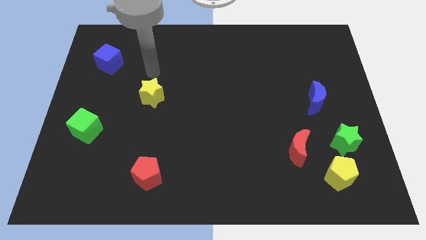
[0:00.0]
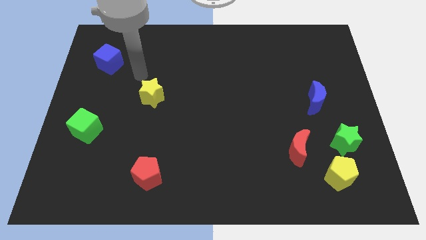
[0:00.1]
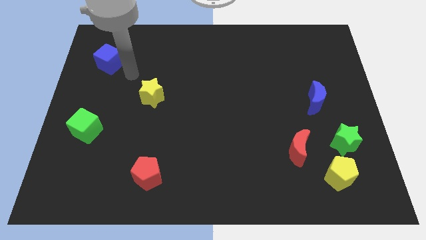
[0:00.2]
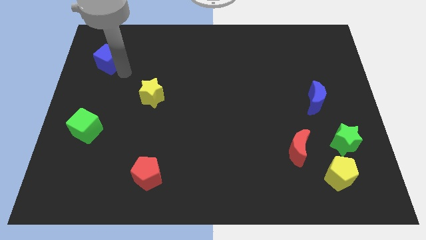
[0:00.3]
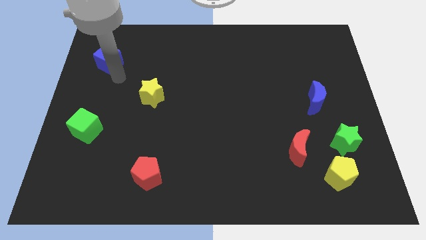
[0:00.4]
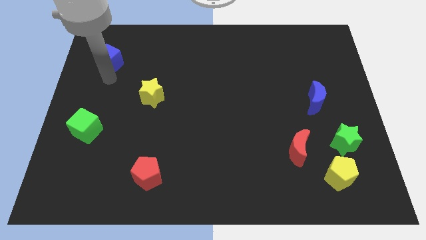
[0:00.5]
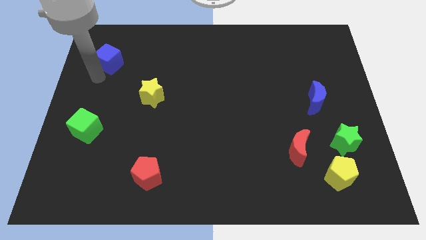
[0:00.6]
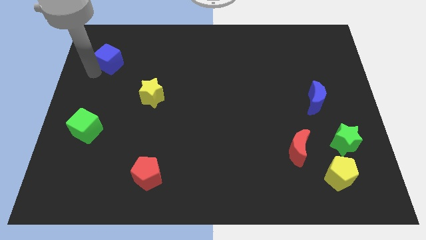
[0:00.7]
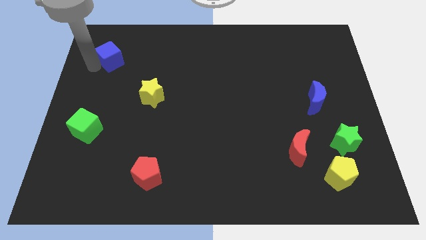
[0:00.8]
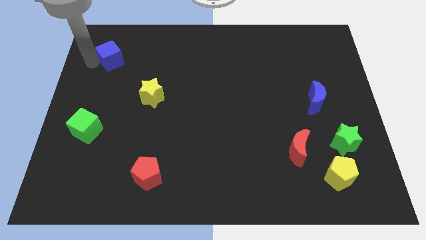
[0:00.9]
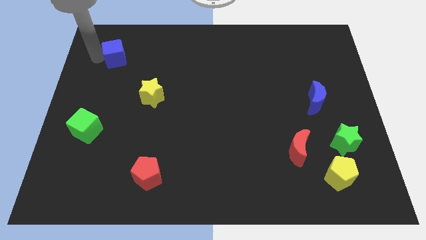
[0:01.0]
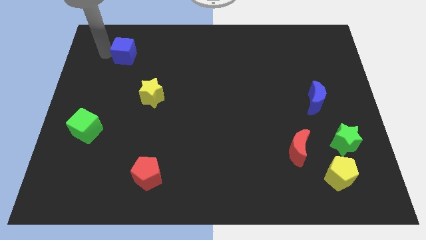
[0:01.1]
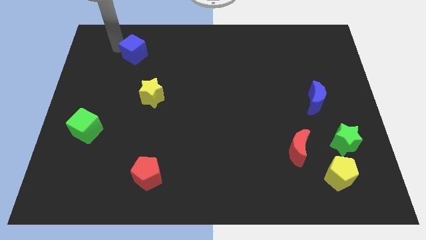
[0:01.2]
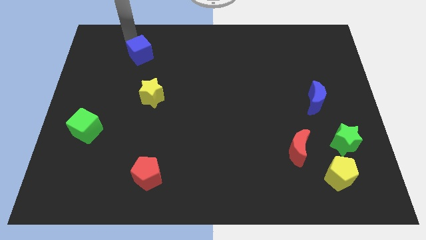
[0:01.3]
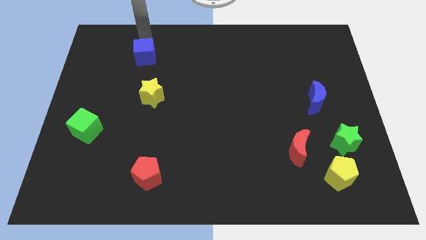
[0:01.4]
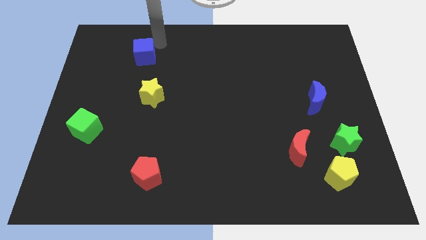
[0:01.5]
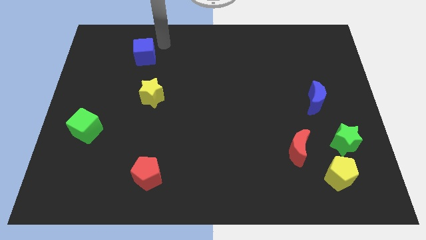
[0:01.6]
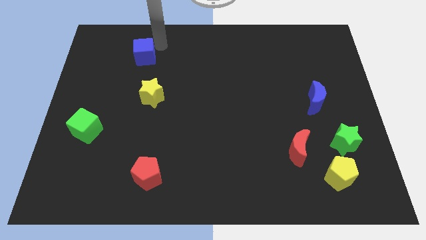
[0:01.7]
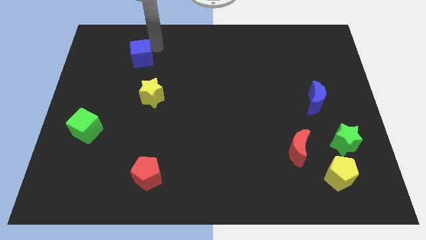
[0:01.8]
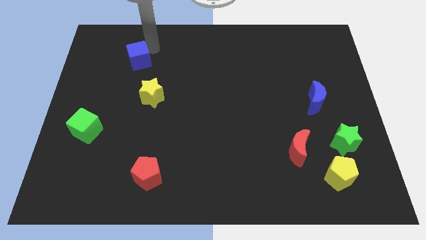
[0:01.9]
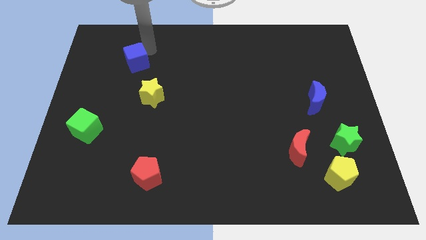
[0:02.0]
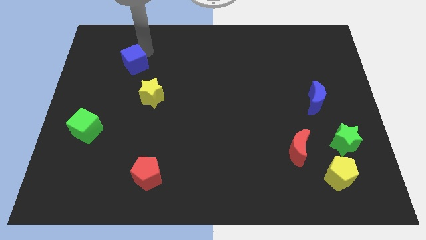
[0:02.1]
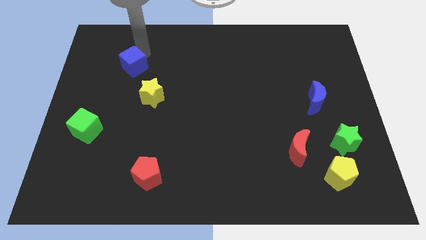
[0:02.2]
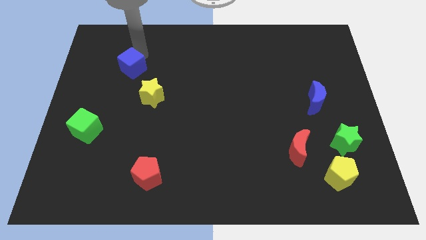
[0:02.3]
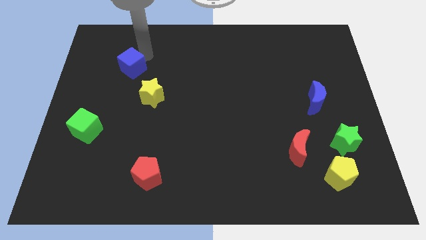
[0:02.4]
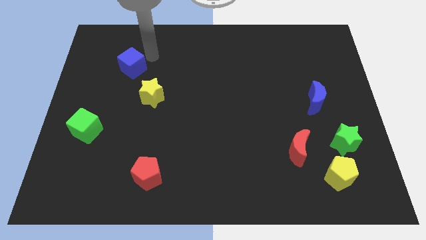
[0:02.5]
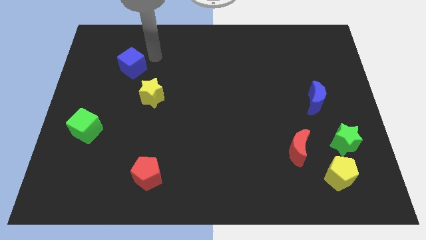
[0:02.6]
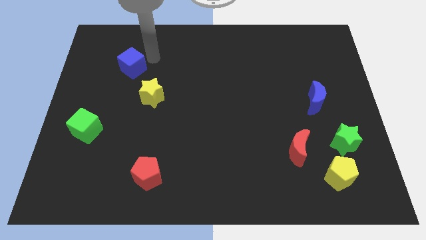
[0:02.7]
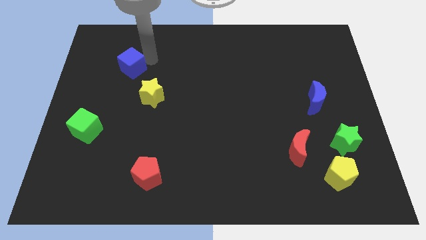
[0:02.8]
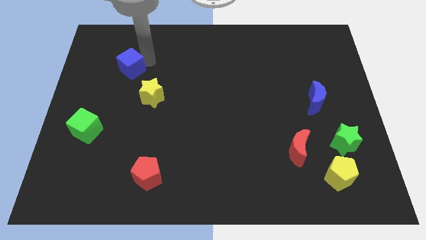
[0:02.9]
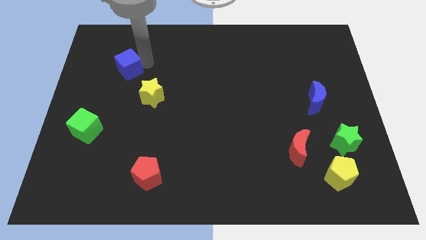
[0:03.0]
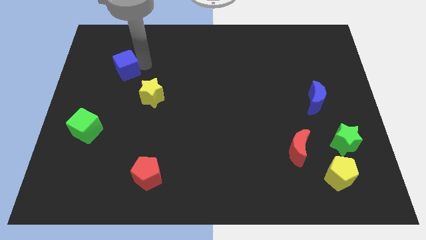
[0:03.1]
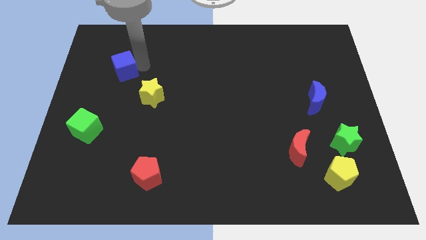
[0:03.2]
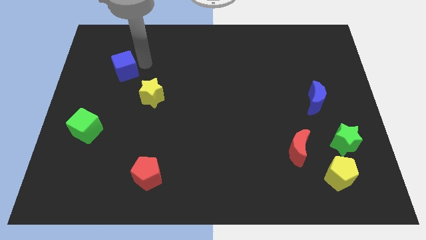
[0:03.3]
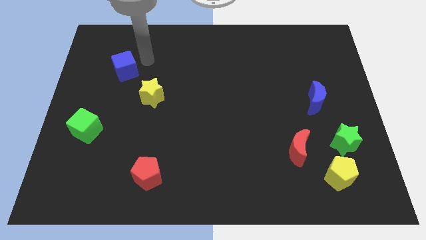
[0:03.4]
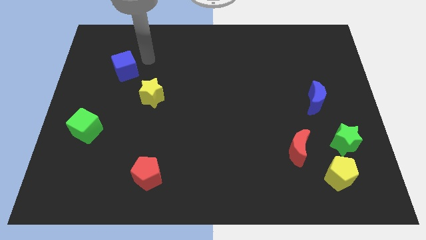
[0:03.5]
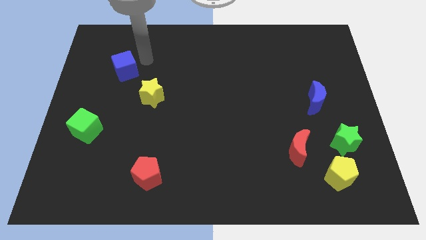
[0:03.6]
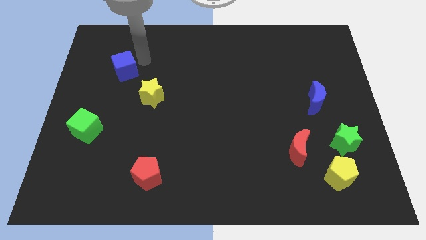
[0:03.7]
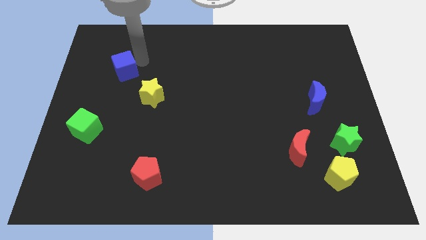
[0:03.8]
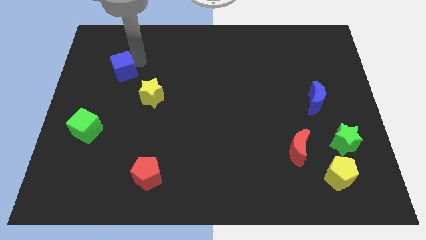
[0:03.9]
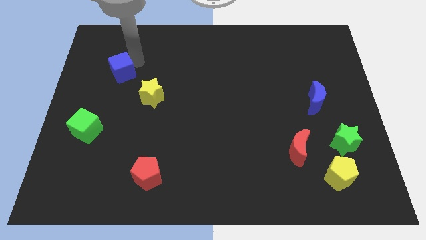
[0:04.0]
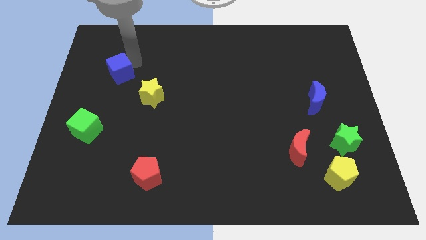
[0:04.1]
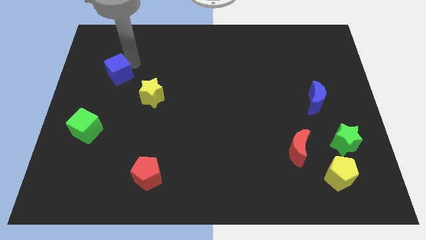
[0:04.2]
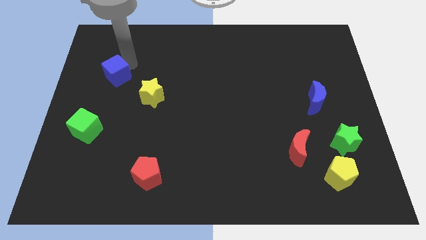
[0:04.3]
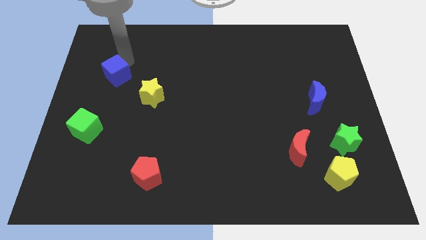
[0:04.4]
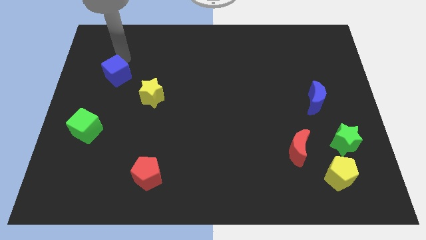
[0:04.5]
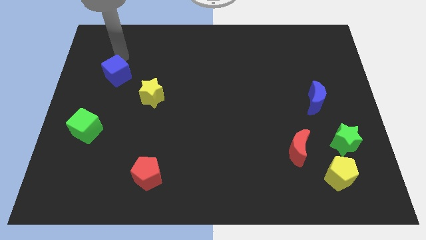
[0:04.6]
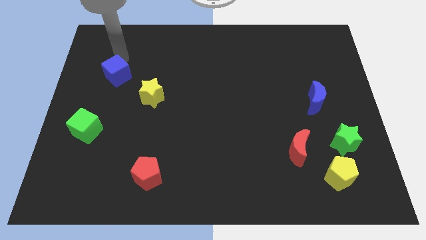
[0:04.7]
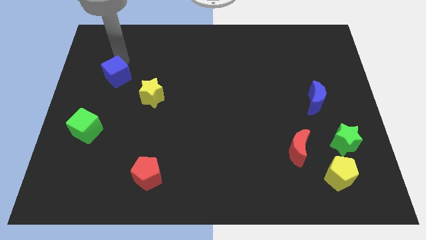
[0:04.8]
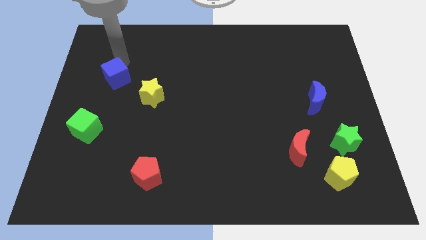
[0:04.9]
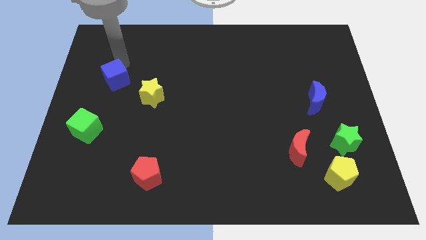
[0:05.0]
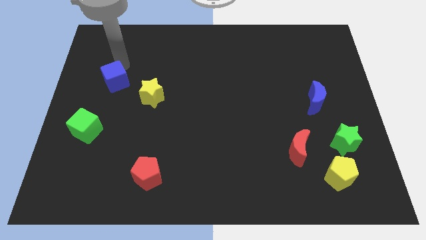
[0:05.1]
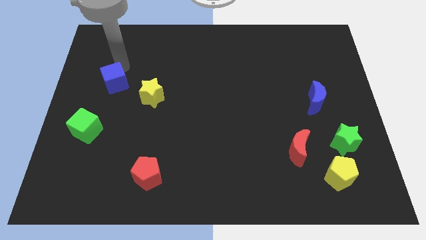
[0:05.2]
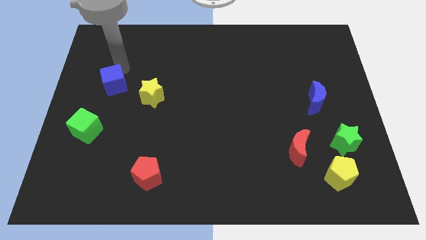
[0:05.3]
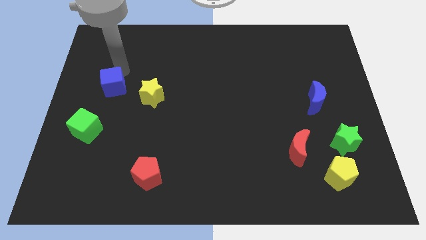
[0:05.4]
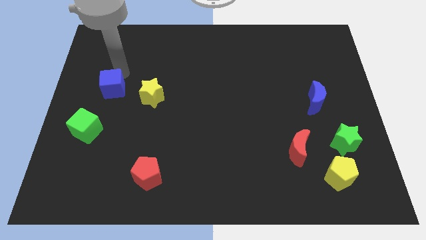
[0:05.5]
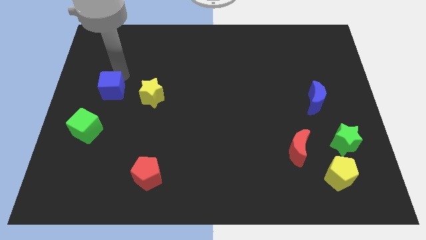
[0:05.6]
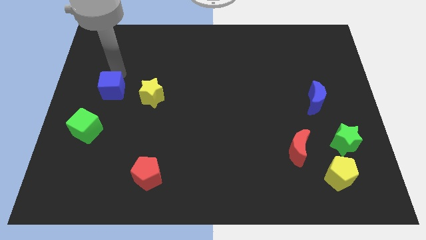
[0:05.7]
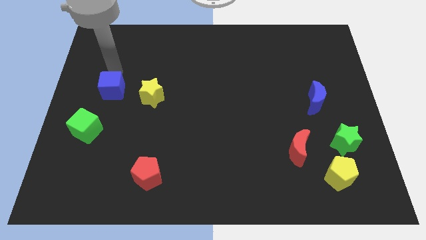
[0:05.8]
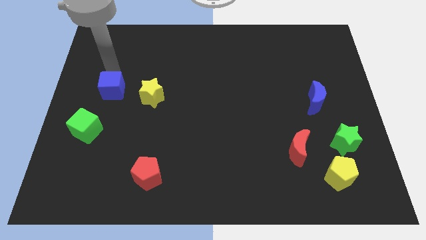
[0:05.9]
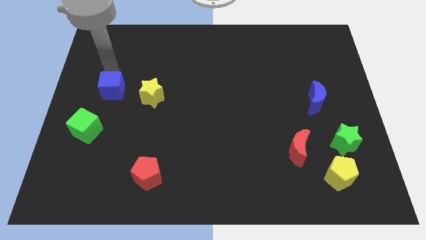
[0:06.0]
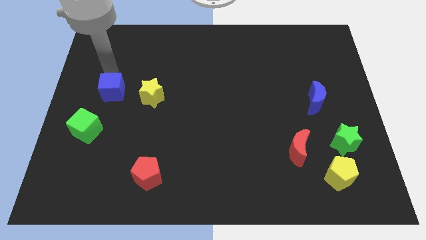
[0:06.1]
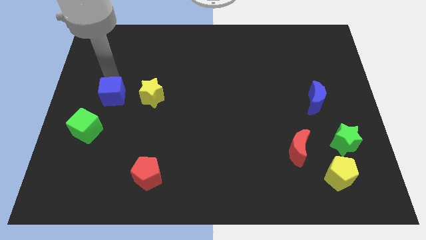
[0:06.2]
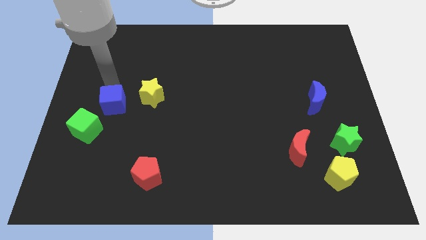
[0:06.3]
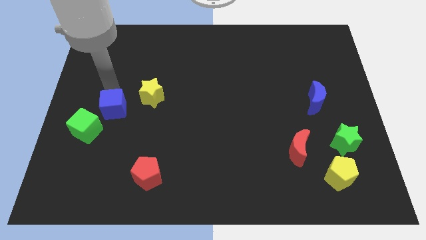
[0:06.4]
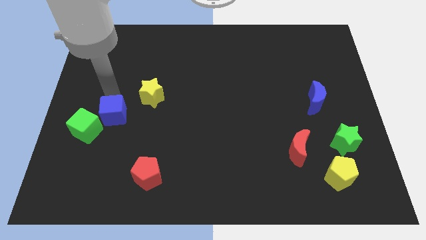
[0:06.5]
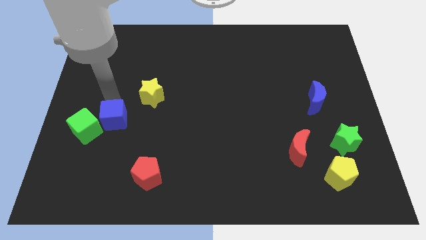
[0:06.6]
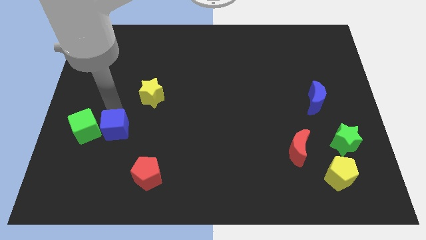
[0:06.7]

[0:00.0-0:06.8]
push the blue cube down

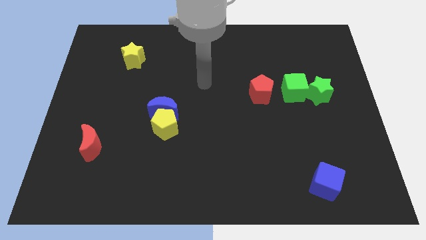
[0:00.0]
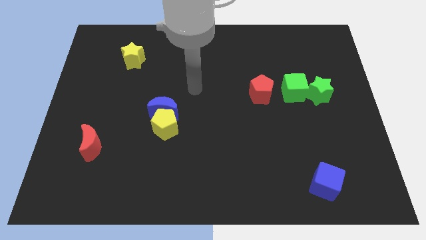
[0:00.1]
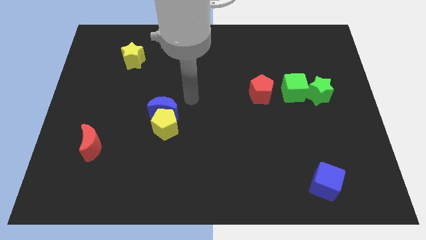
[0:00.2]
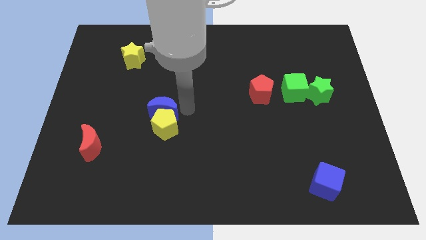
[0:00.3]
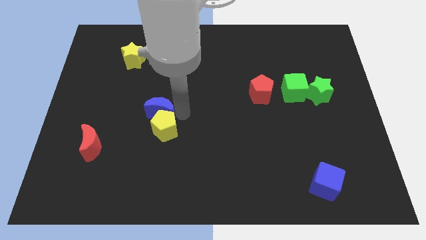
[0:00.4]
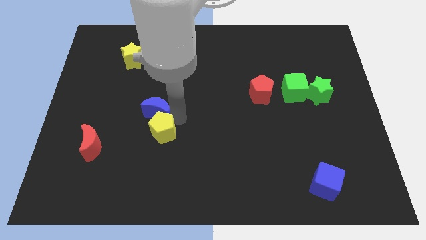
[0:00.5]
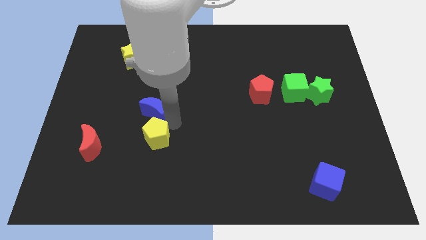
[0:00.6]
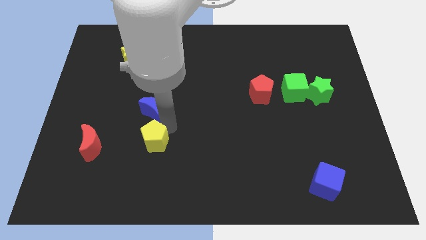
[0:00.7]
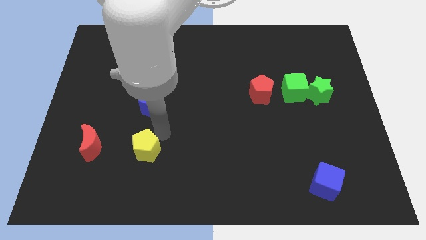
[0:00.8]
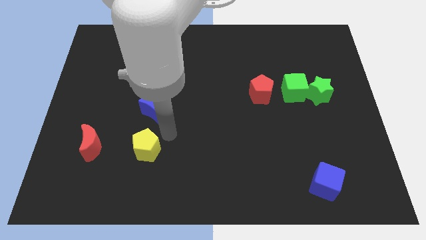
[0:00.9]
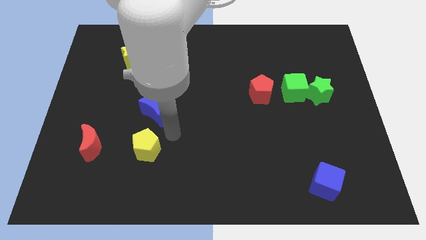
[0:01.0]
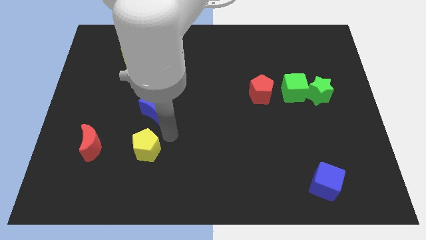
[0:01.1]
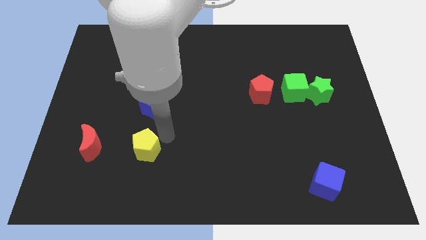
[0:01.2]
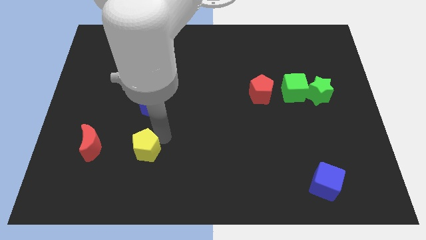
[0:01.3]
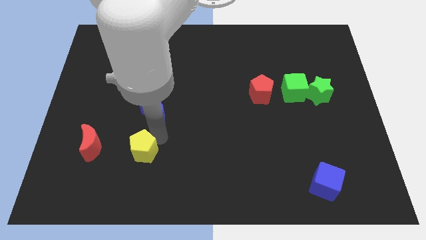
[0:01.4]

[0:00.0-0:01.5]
push the yellow pentagon a little bit down and to the left
